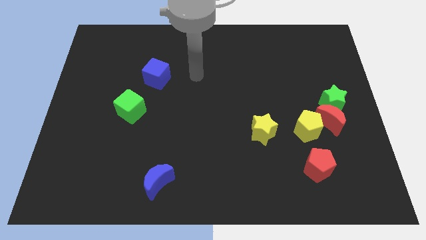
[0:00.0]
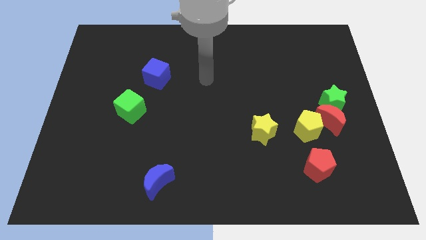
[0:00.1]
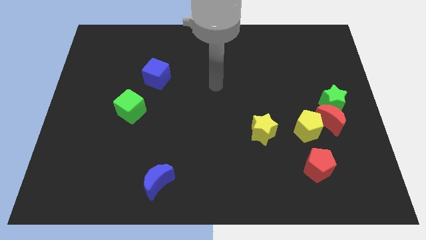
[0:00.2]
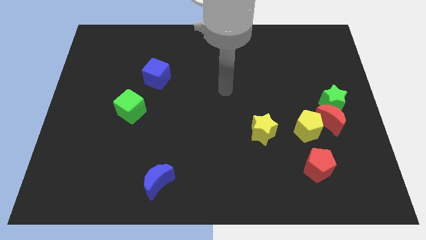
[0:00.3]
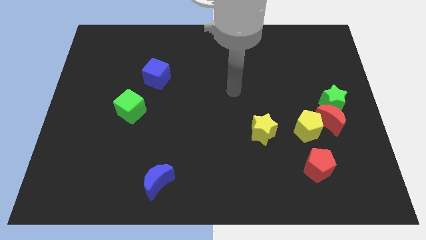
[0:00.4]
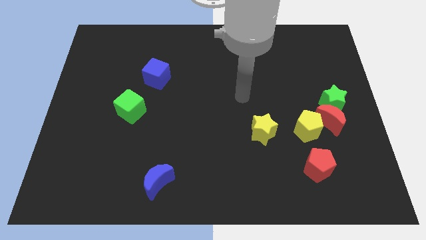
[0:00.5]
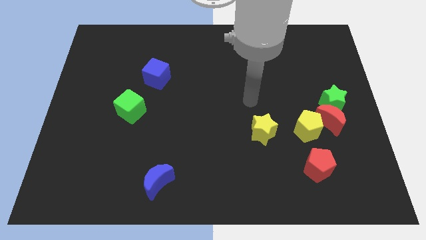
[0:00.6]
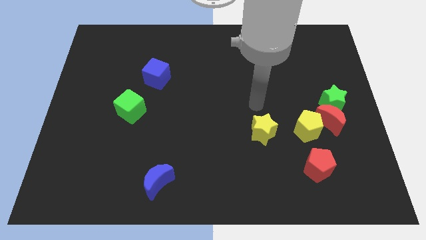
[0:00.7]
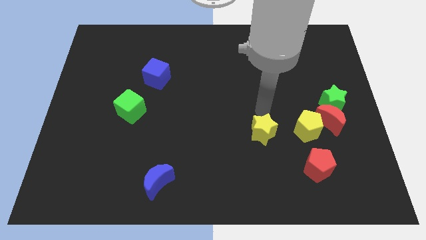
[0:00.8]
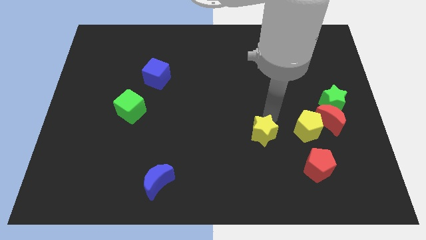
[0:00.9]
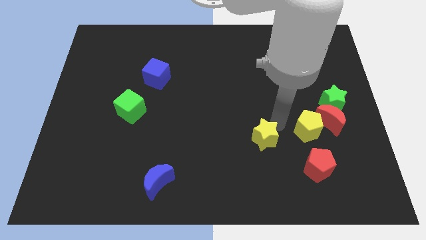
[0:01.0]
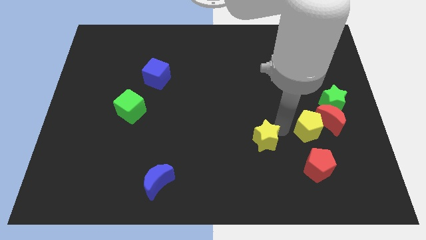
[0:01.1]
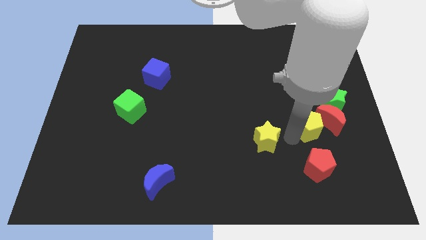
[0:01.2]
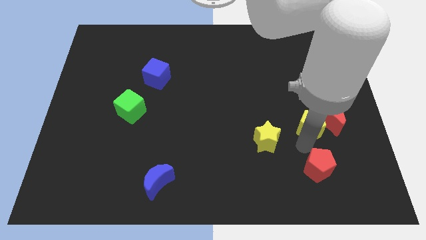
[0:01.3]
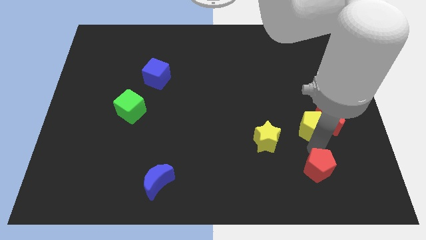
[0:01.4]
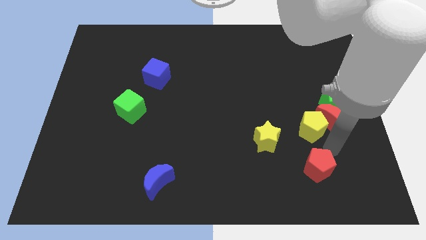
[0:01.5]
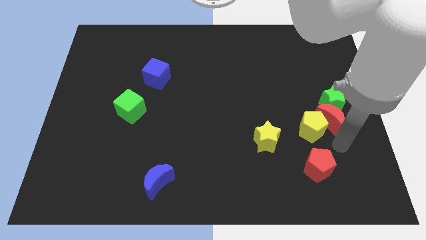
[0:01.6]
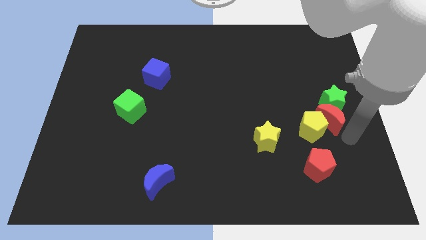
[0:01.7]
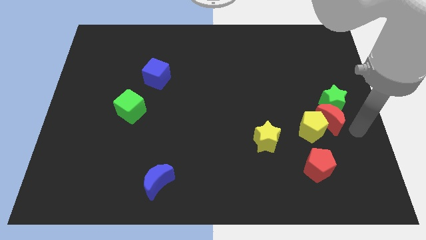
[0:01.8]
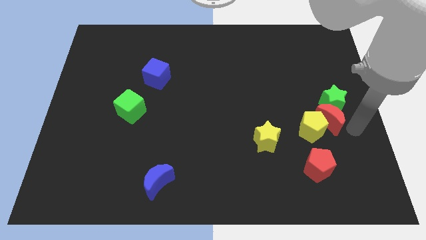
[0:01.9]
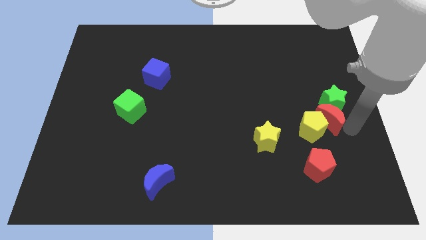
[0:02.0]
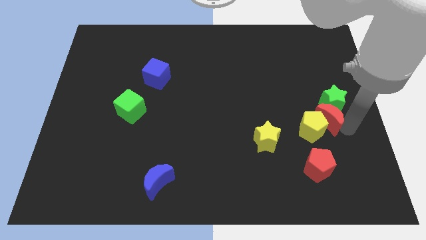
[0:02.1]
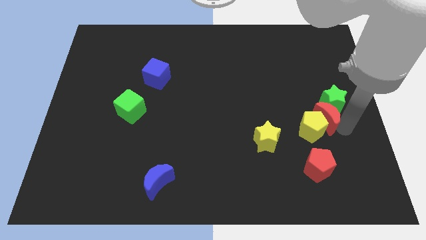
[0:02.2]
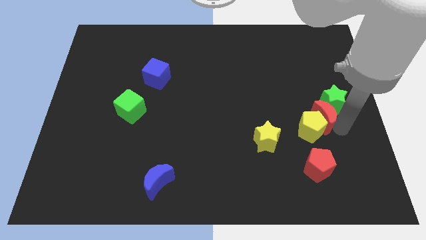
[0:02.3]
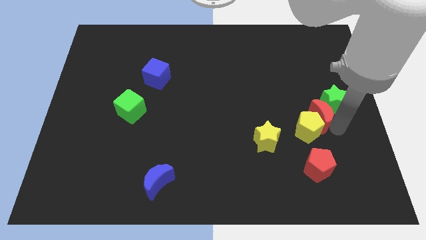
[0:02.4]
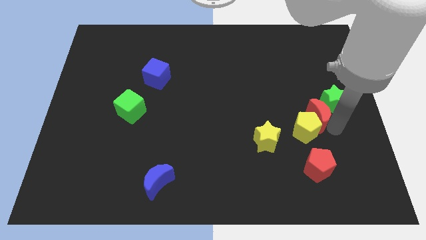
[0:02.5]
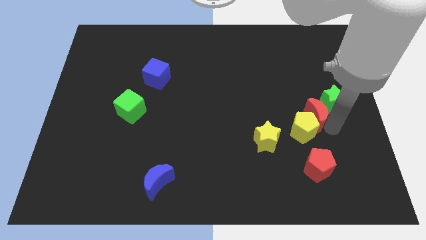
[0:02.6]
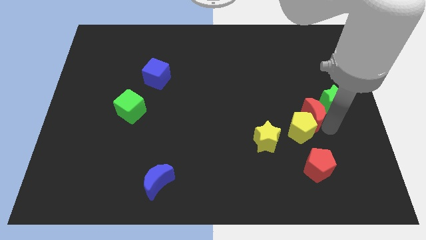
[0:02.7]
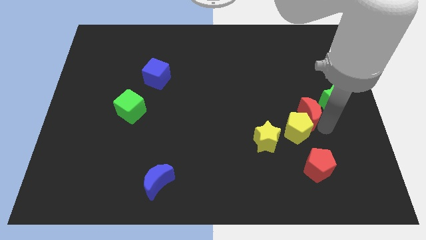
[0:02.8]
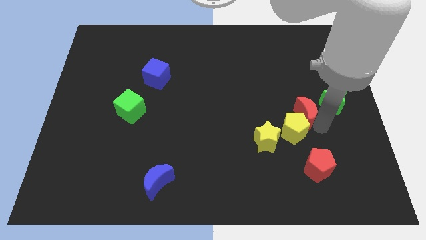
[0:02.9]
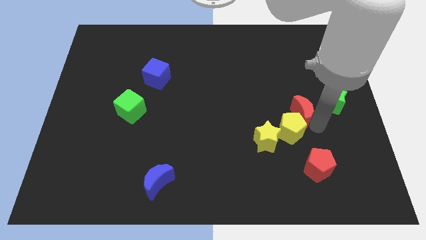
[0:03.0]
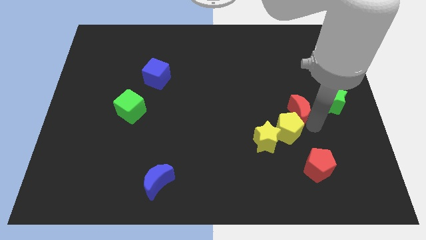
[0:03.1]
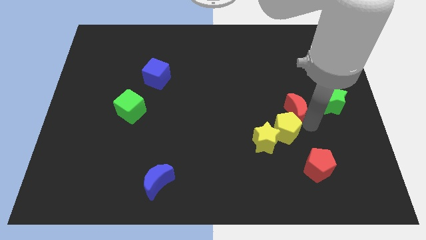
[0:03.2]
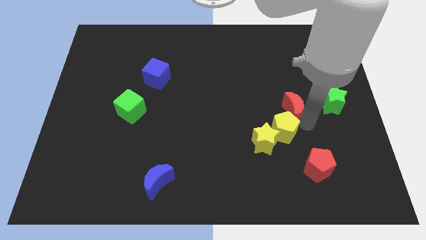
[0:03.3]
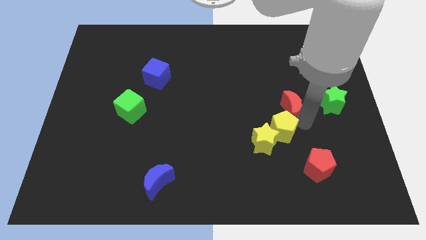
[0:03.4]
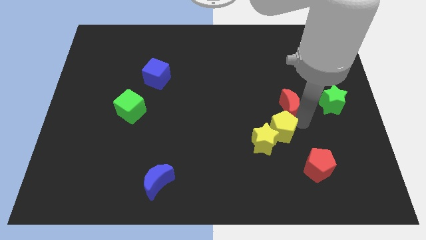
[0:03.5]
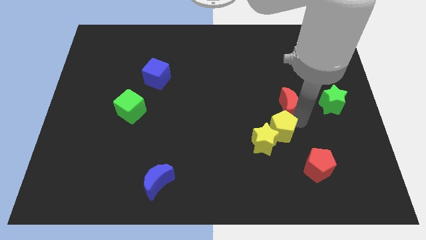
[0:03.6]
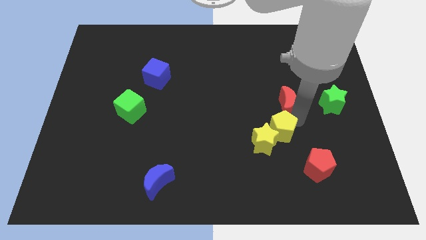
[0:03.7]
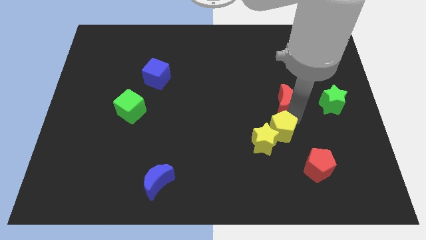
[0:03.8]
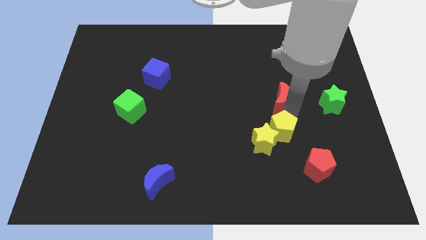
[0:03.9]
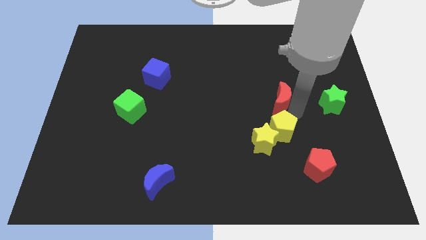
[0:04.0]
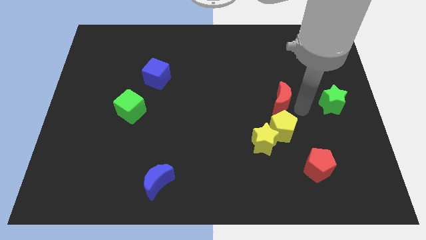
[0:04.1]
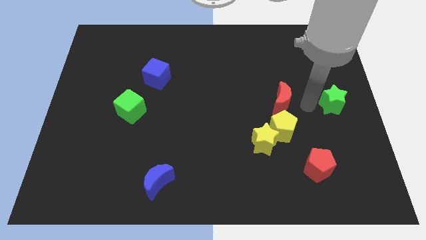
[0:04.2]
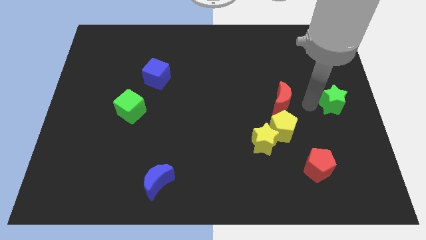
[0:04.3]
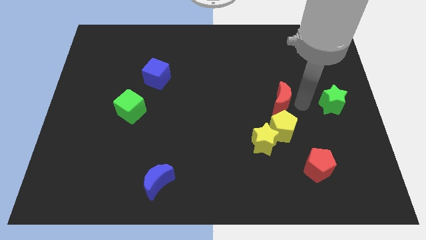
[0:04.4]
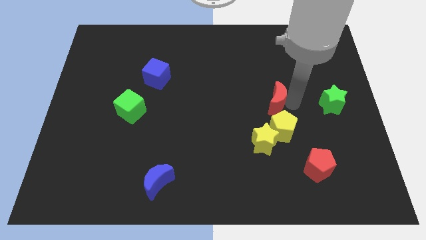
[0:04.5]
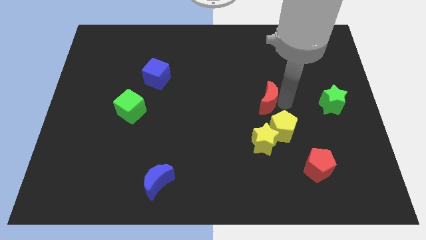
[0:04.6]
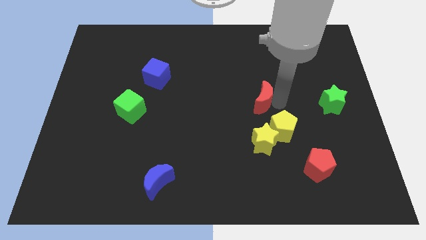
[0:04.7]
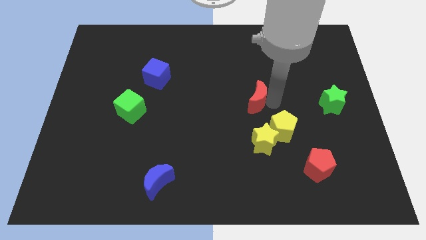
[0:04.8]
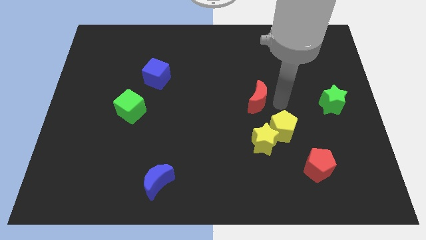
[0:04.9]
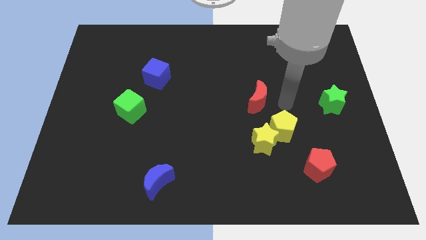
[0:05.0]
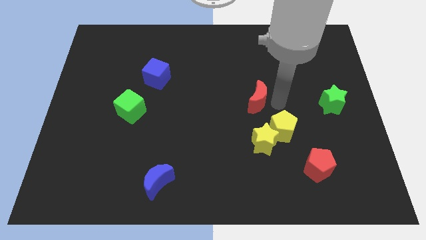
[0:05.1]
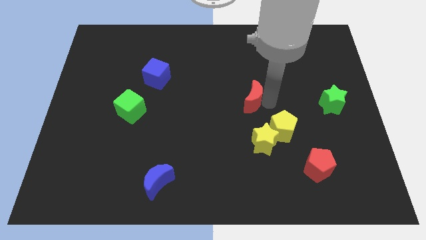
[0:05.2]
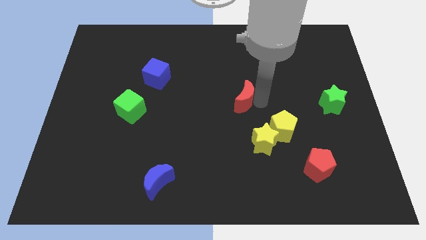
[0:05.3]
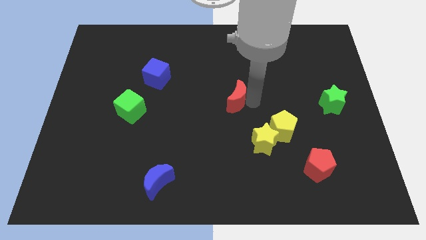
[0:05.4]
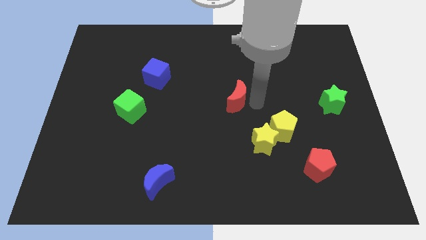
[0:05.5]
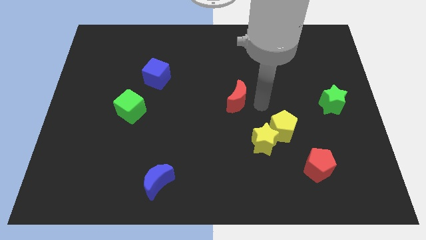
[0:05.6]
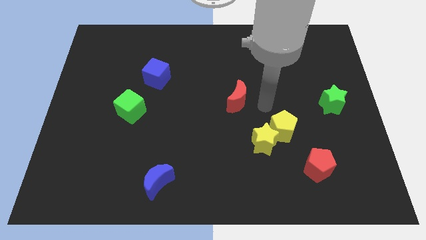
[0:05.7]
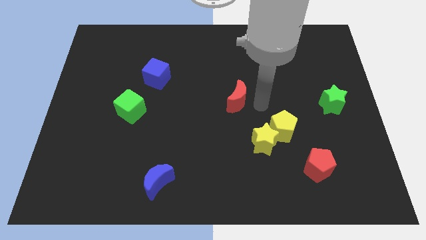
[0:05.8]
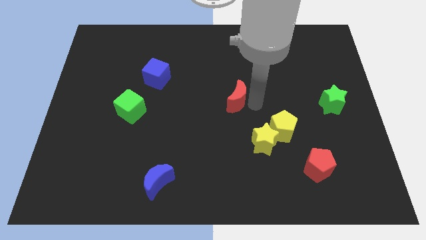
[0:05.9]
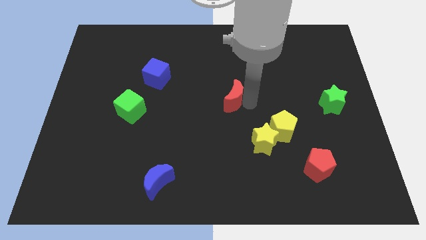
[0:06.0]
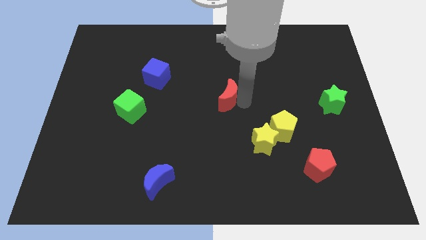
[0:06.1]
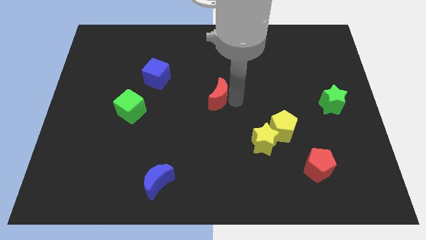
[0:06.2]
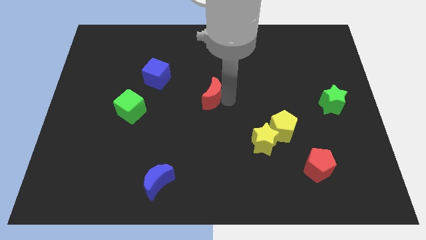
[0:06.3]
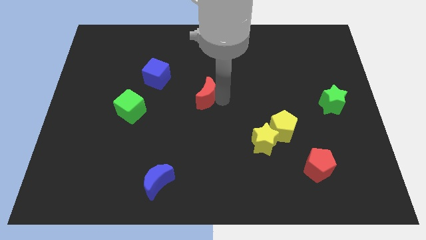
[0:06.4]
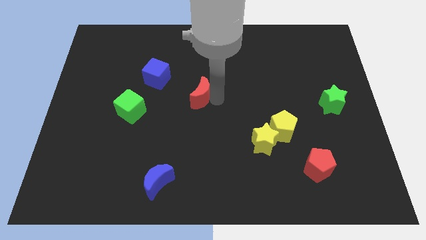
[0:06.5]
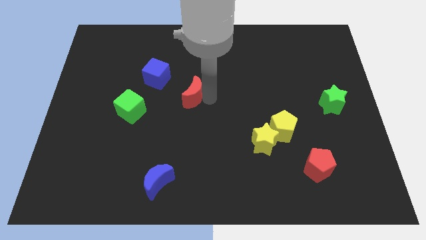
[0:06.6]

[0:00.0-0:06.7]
push the red moon to the bottom right of the blue cube
